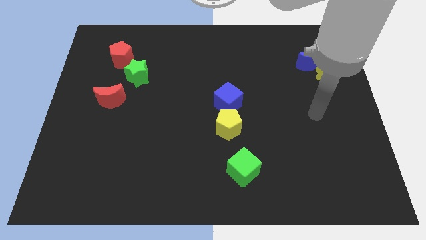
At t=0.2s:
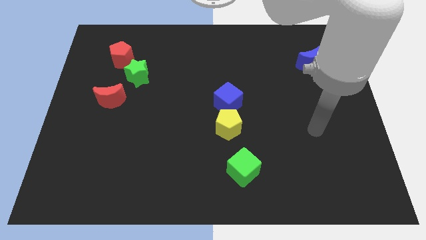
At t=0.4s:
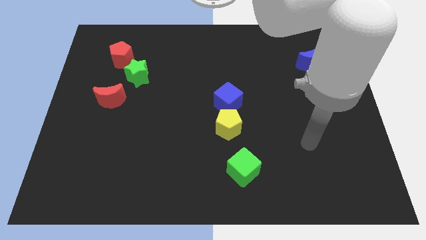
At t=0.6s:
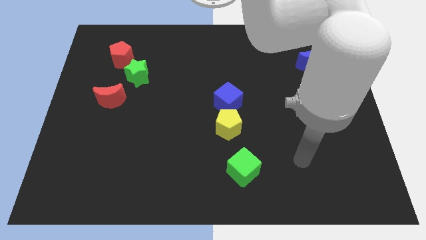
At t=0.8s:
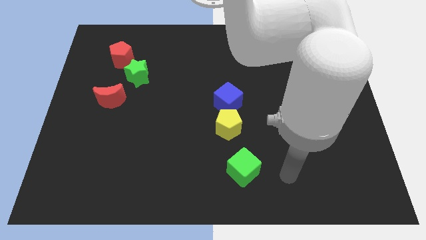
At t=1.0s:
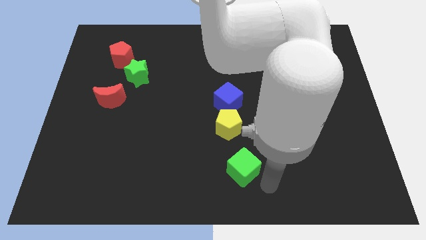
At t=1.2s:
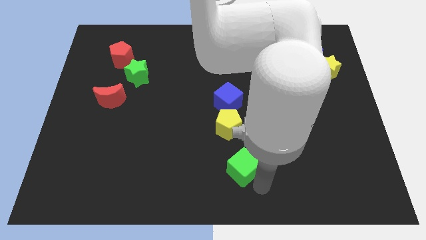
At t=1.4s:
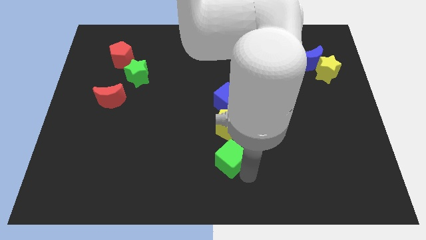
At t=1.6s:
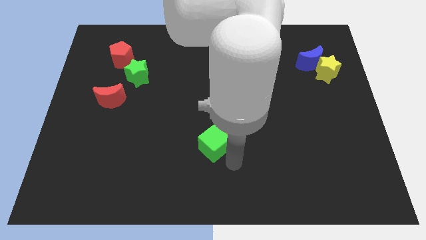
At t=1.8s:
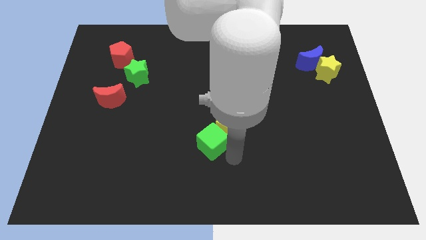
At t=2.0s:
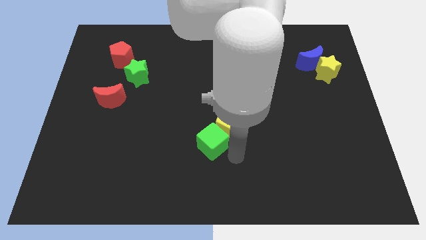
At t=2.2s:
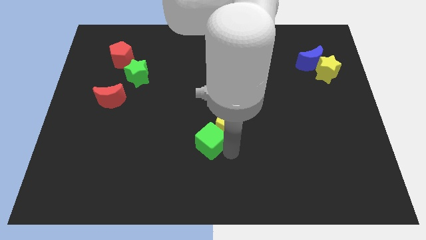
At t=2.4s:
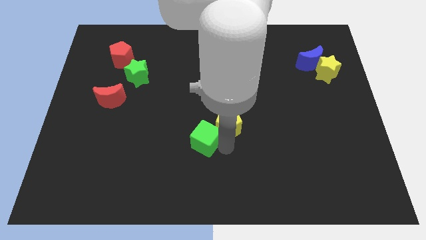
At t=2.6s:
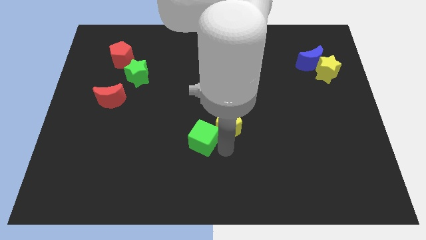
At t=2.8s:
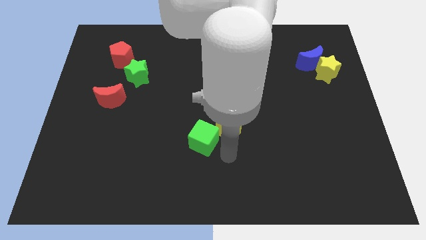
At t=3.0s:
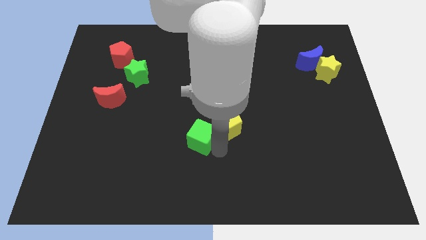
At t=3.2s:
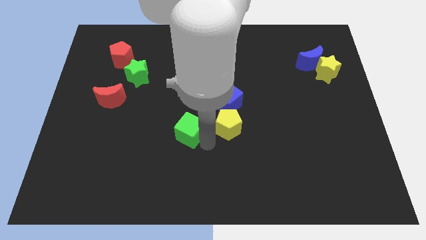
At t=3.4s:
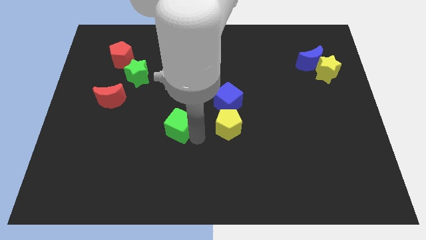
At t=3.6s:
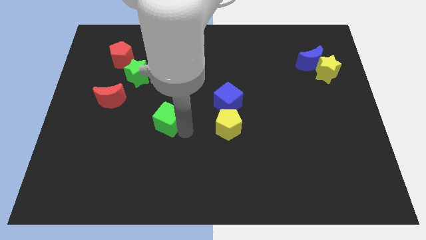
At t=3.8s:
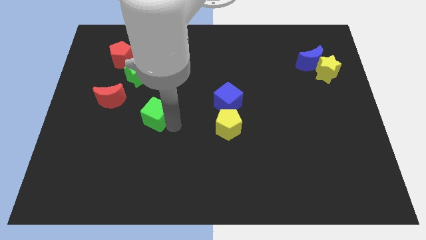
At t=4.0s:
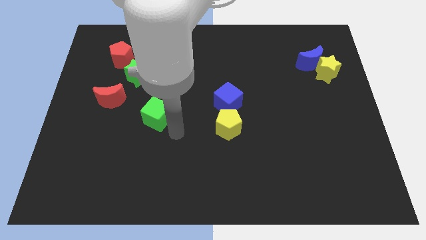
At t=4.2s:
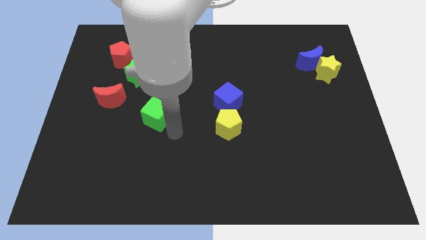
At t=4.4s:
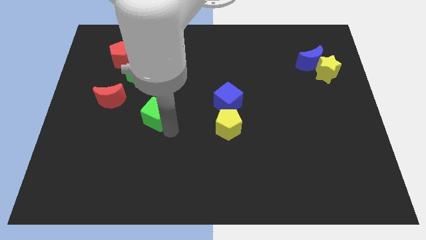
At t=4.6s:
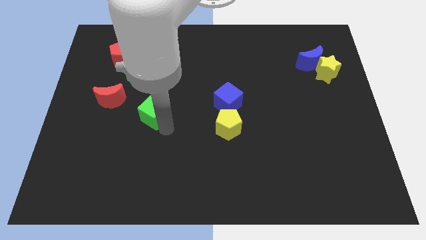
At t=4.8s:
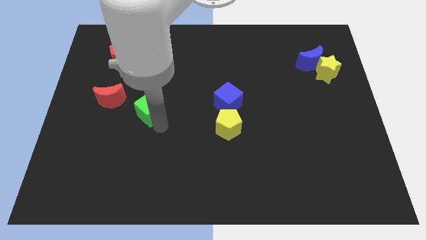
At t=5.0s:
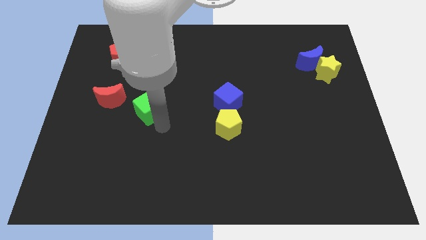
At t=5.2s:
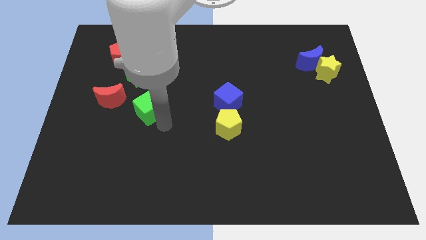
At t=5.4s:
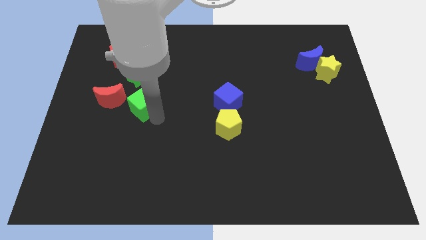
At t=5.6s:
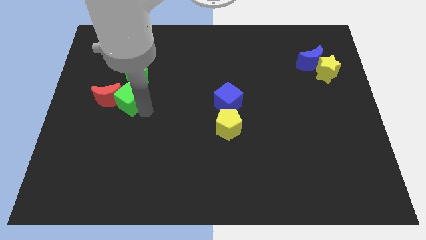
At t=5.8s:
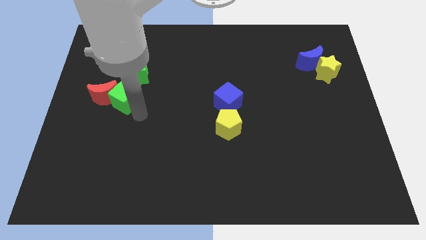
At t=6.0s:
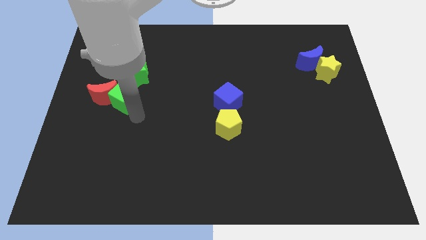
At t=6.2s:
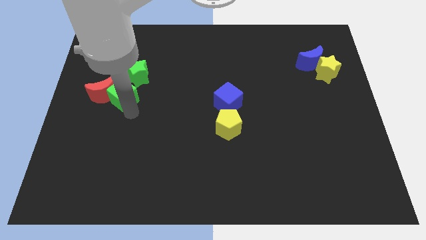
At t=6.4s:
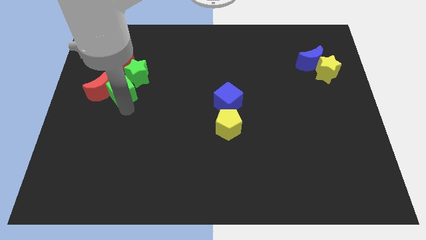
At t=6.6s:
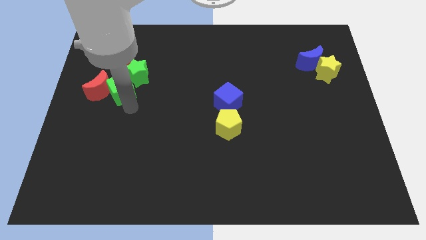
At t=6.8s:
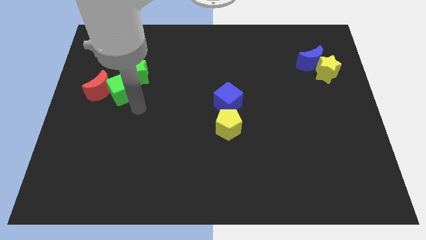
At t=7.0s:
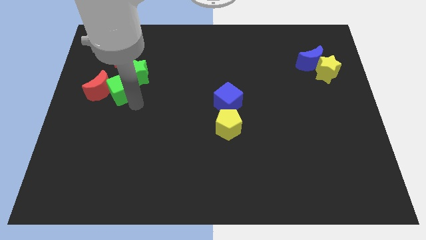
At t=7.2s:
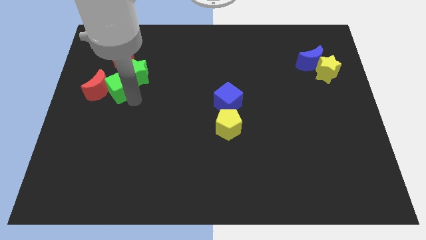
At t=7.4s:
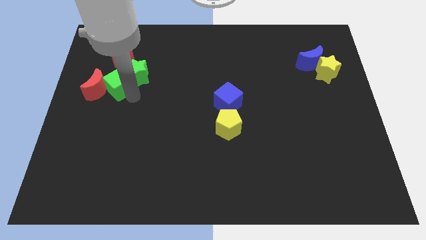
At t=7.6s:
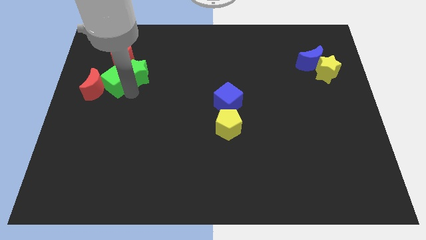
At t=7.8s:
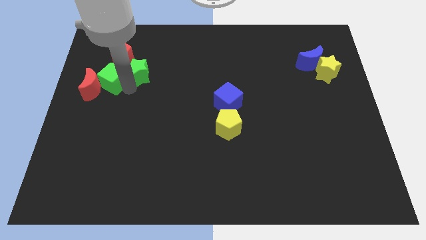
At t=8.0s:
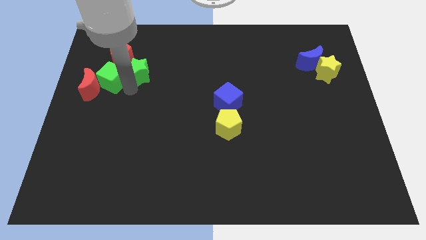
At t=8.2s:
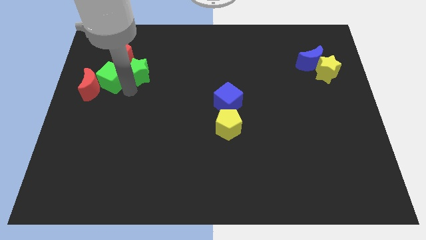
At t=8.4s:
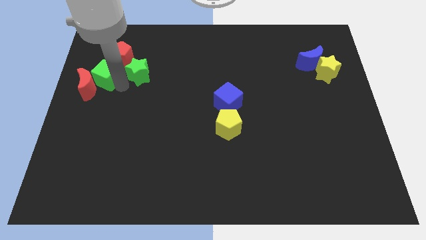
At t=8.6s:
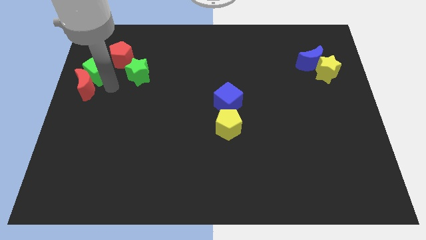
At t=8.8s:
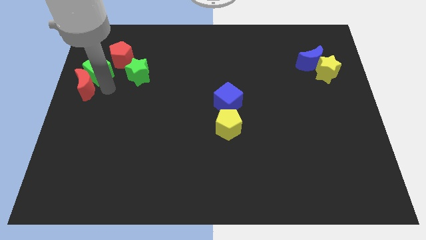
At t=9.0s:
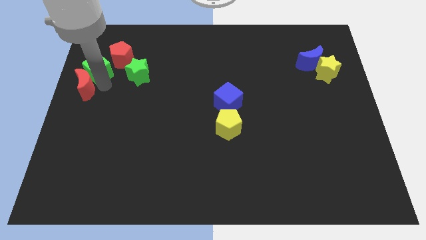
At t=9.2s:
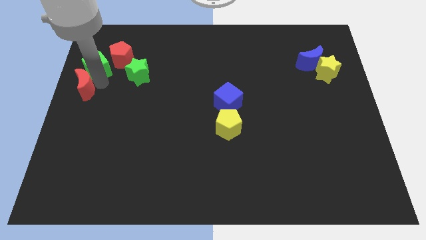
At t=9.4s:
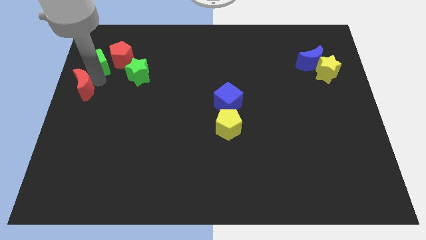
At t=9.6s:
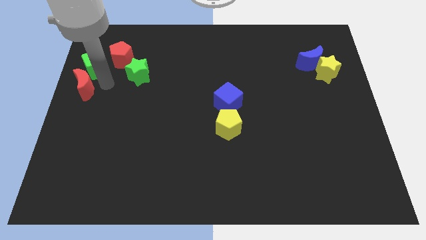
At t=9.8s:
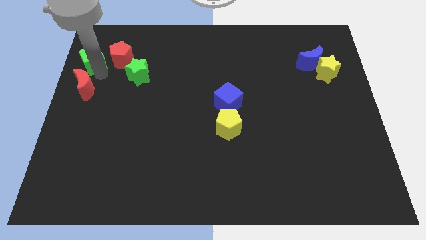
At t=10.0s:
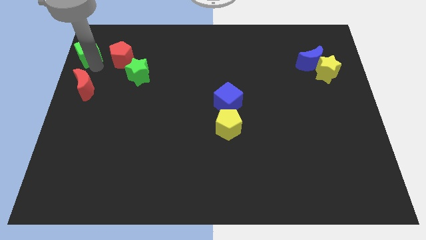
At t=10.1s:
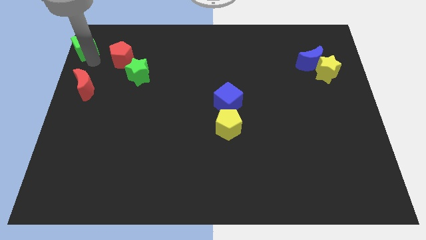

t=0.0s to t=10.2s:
put the green cube to the top left of the board

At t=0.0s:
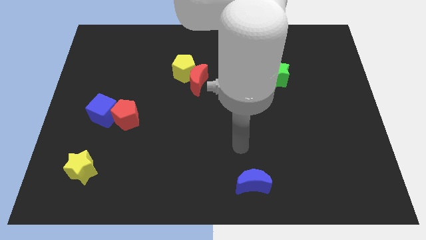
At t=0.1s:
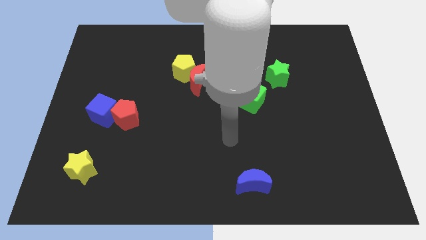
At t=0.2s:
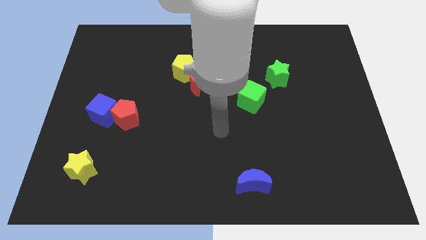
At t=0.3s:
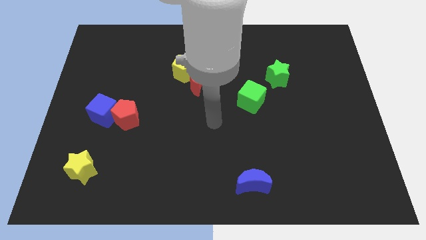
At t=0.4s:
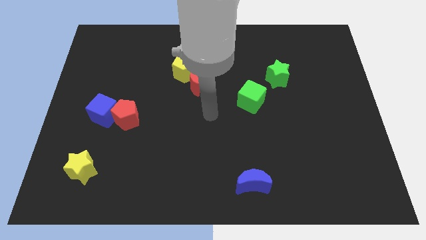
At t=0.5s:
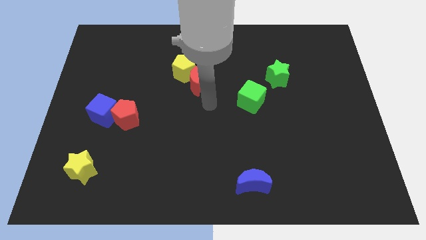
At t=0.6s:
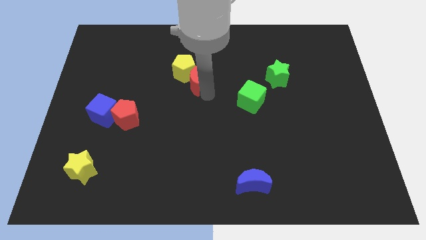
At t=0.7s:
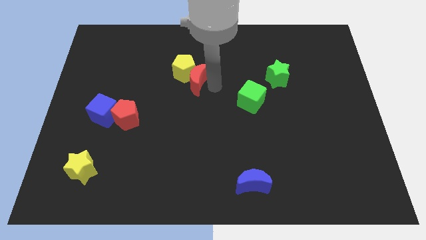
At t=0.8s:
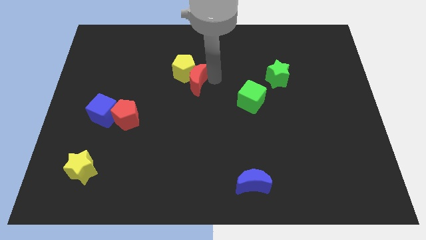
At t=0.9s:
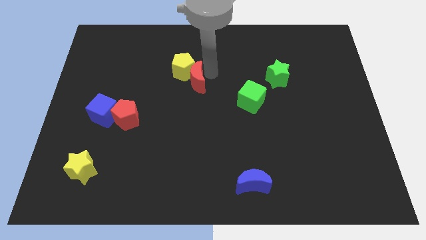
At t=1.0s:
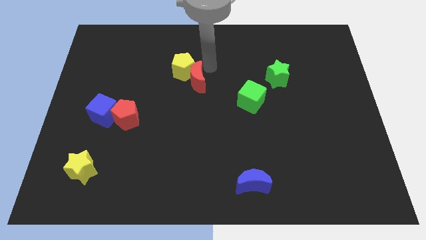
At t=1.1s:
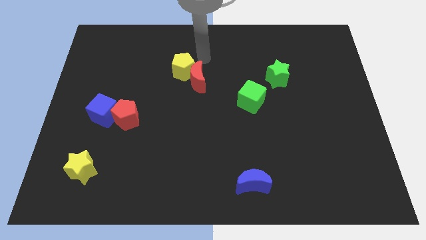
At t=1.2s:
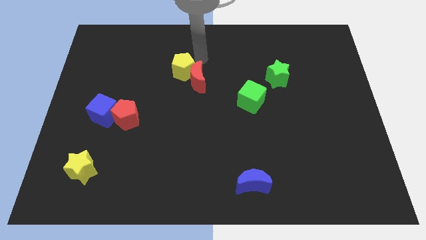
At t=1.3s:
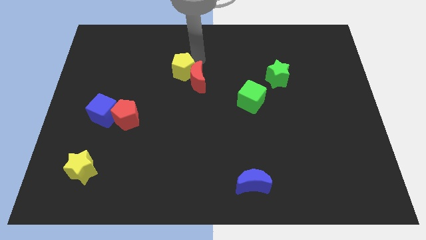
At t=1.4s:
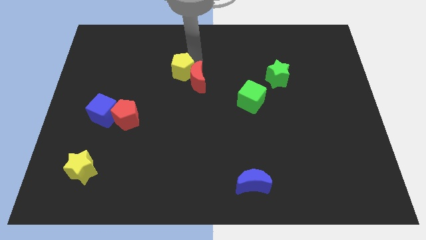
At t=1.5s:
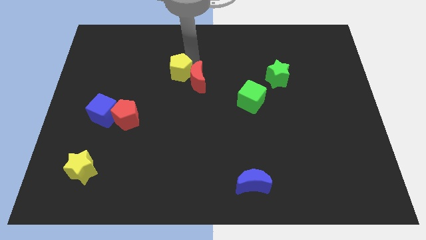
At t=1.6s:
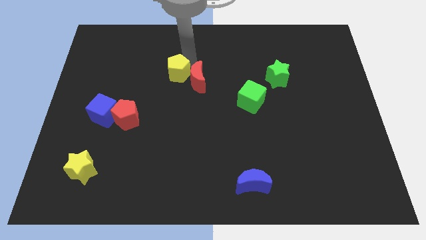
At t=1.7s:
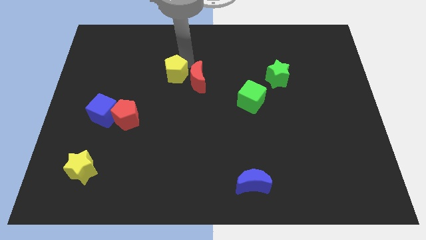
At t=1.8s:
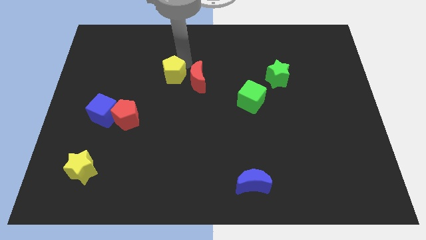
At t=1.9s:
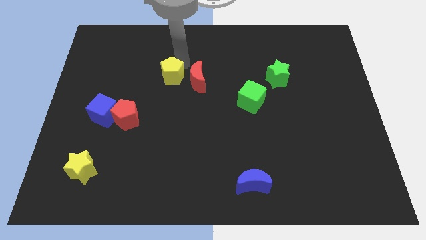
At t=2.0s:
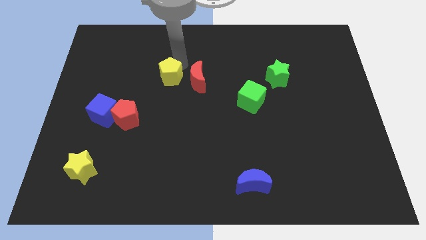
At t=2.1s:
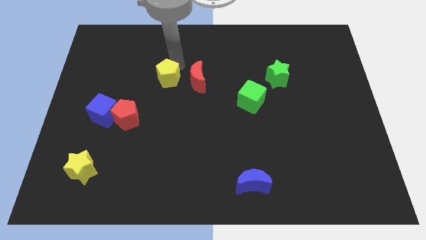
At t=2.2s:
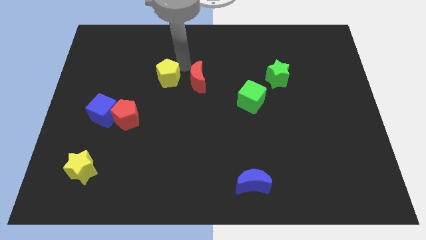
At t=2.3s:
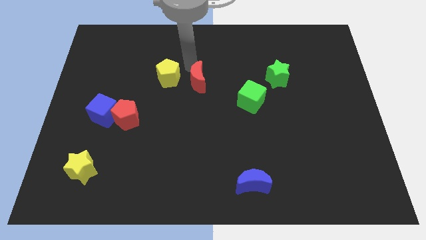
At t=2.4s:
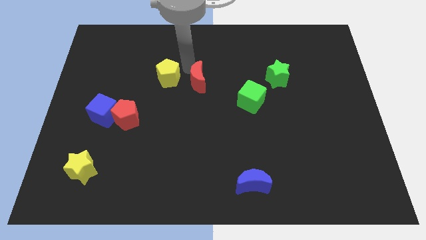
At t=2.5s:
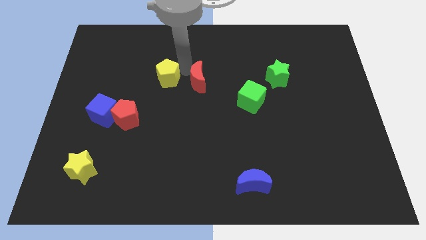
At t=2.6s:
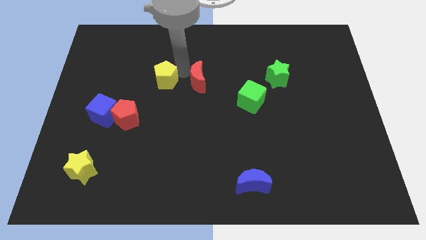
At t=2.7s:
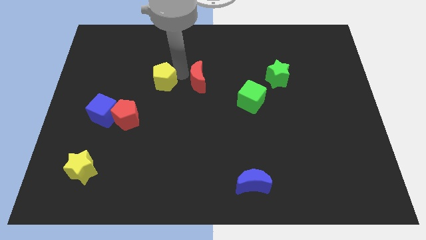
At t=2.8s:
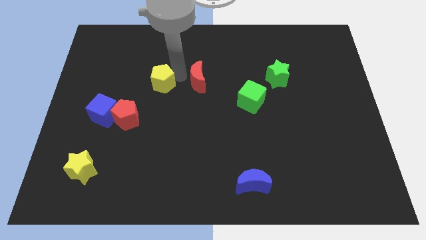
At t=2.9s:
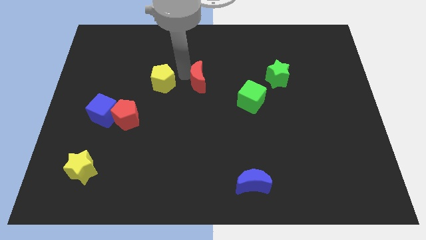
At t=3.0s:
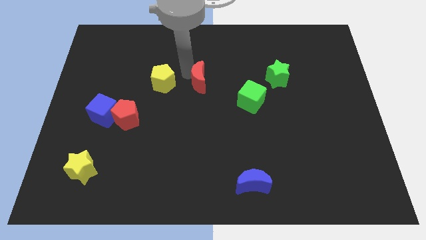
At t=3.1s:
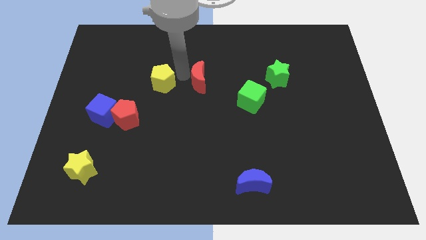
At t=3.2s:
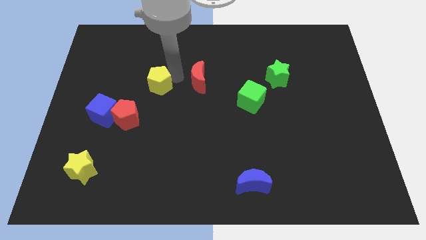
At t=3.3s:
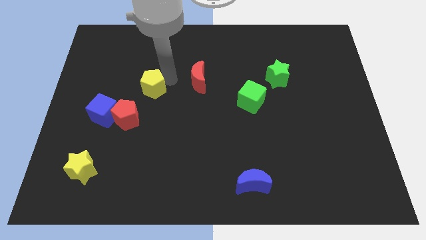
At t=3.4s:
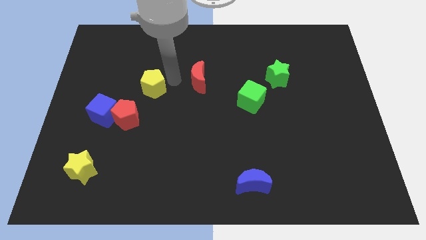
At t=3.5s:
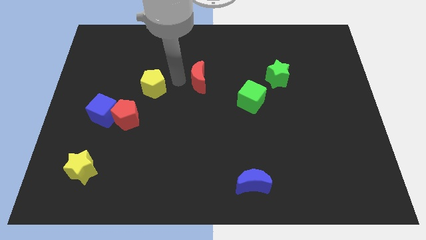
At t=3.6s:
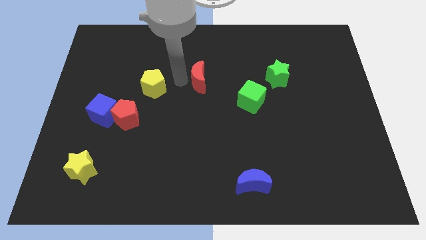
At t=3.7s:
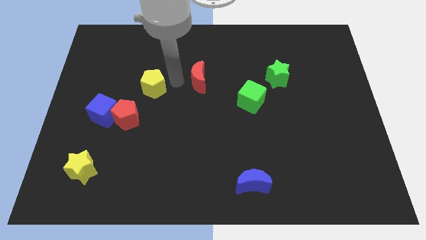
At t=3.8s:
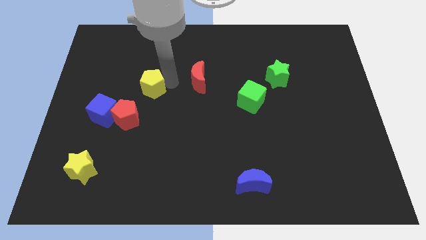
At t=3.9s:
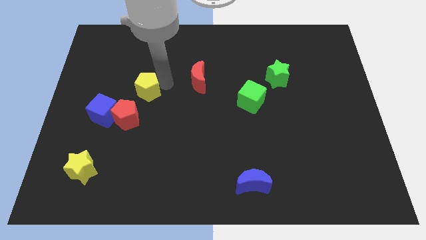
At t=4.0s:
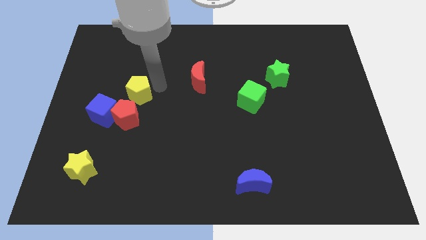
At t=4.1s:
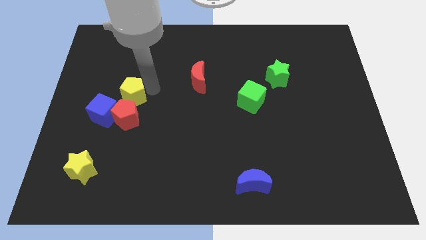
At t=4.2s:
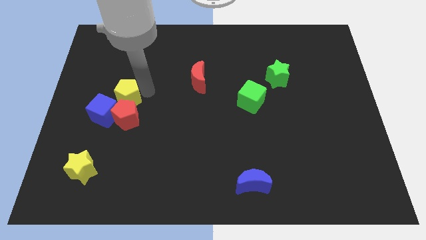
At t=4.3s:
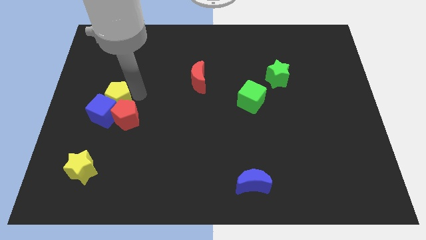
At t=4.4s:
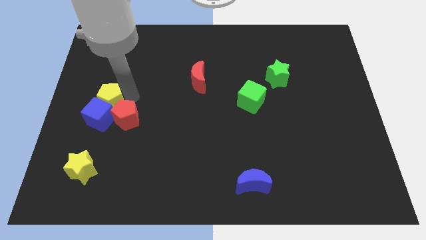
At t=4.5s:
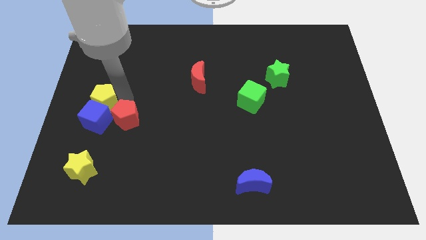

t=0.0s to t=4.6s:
move the yellow pentagon to the center left
